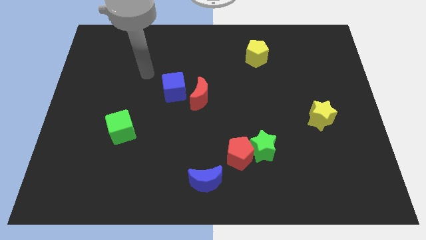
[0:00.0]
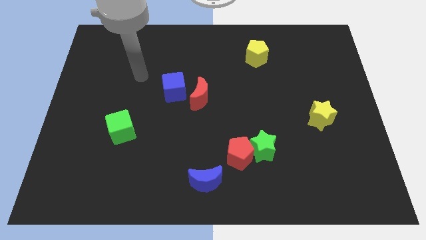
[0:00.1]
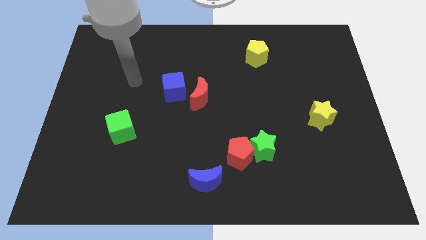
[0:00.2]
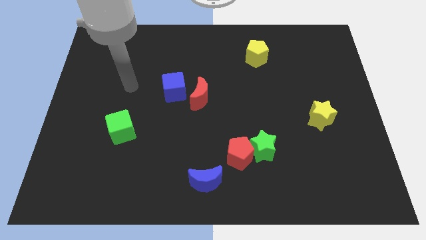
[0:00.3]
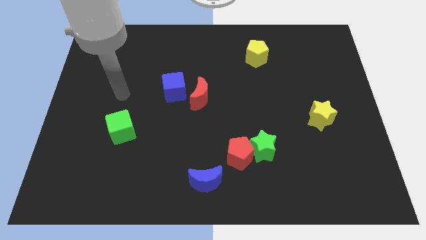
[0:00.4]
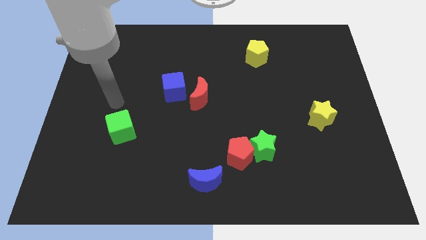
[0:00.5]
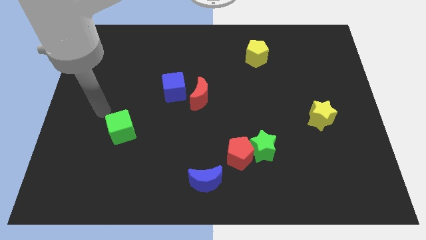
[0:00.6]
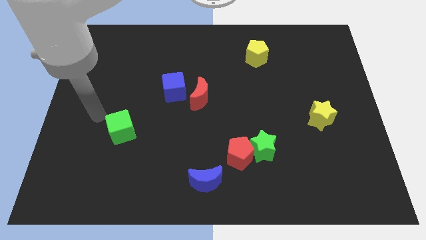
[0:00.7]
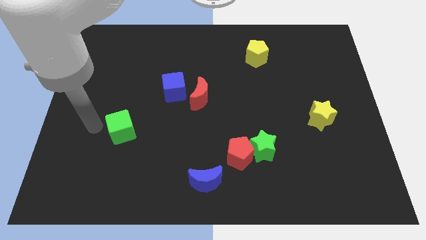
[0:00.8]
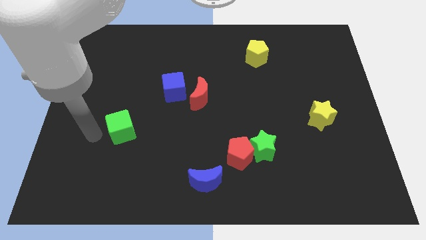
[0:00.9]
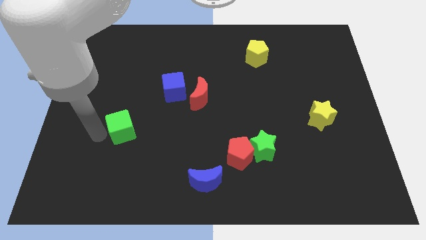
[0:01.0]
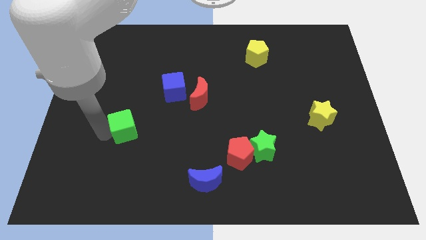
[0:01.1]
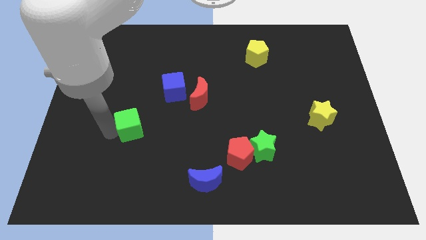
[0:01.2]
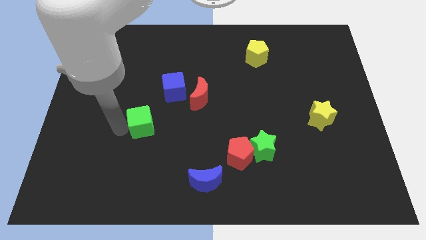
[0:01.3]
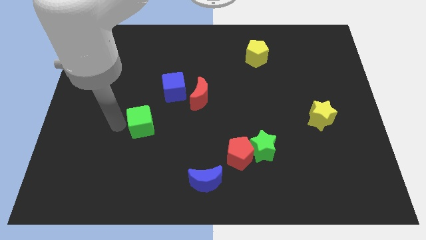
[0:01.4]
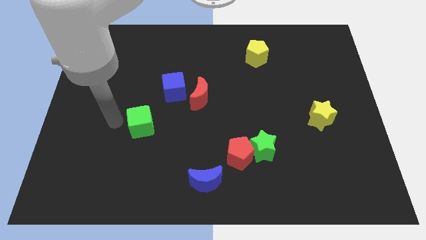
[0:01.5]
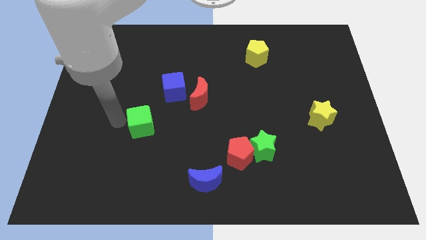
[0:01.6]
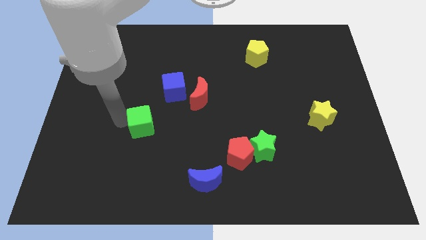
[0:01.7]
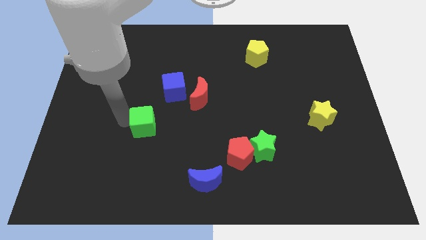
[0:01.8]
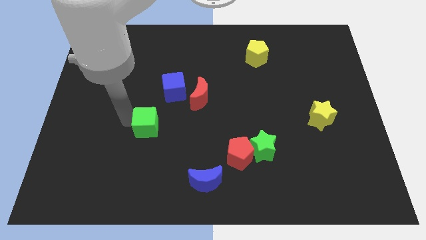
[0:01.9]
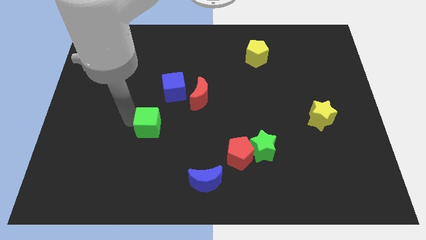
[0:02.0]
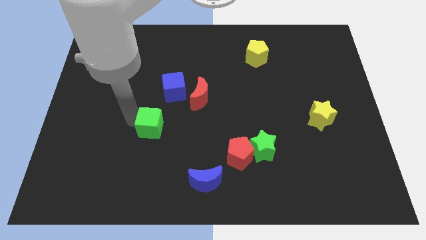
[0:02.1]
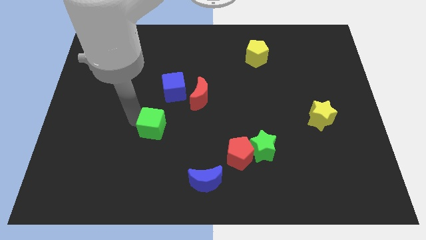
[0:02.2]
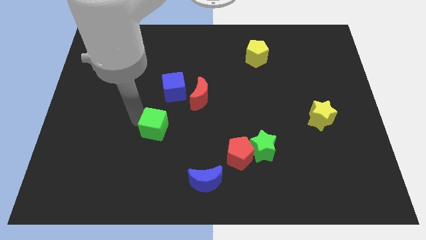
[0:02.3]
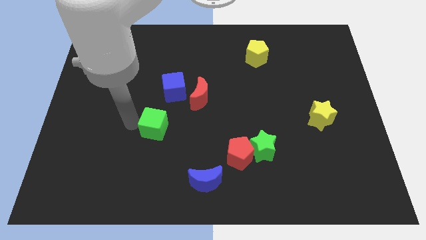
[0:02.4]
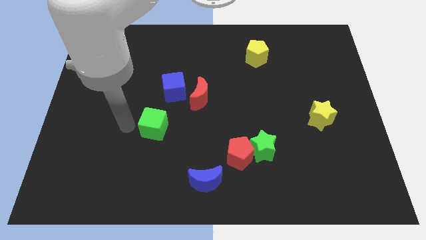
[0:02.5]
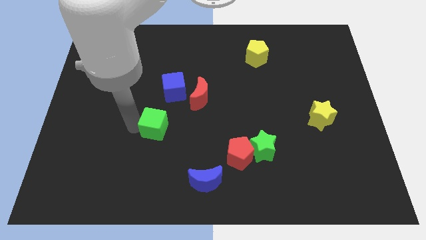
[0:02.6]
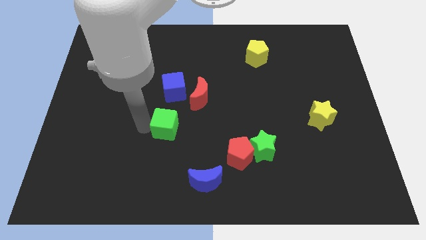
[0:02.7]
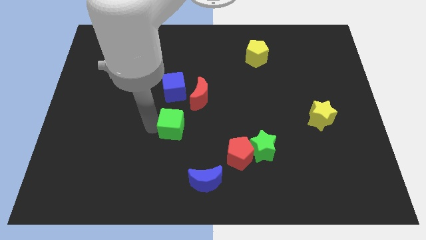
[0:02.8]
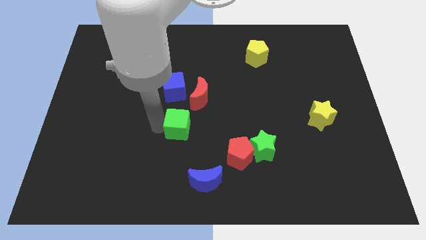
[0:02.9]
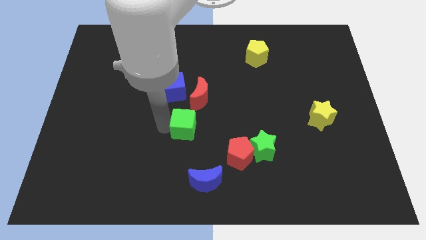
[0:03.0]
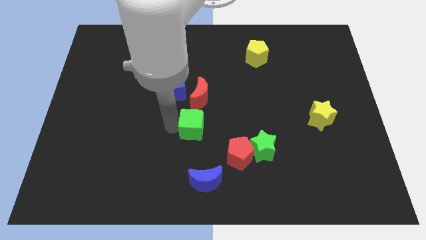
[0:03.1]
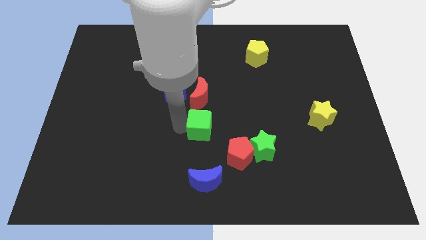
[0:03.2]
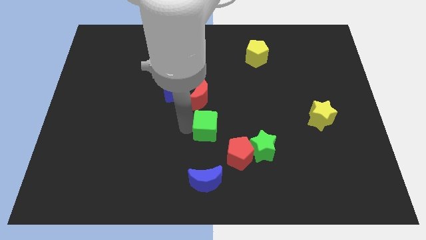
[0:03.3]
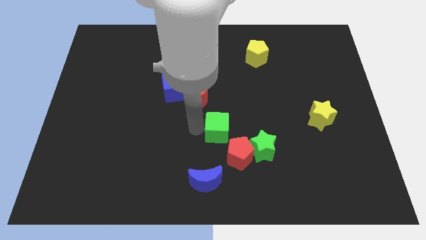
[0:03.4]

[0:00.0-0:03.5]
push the green cube to the right

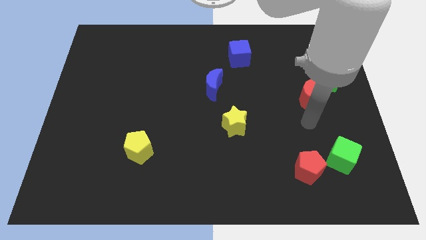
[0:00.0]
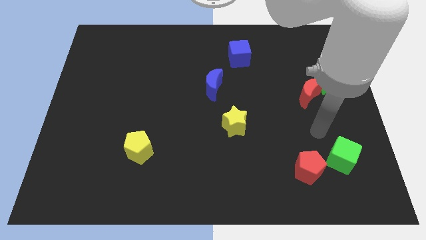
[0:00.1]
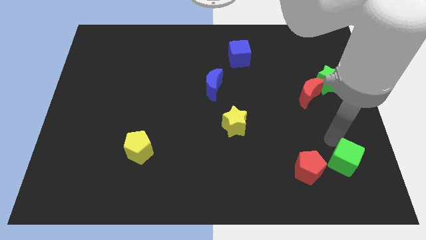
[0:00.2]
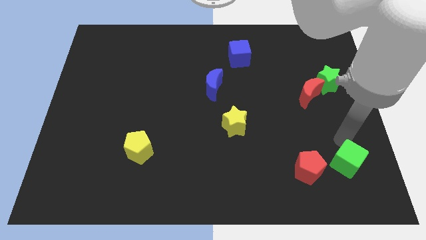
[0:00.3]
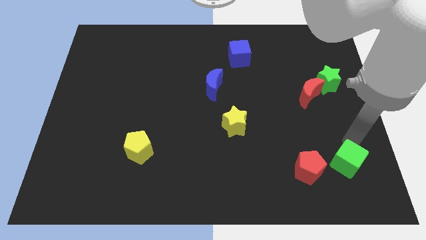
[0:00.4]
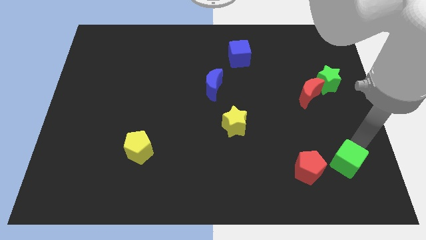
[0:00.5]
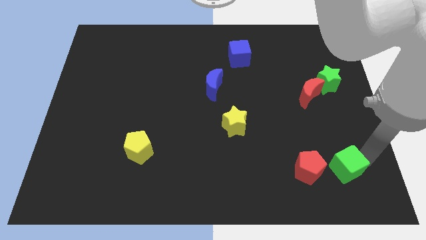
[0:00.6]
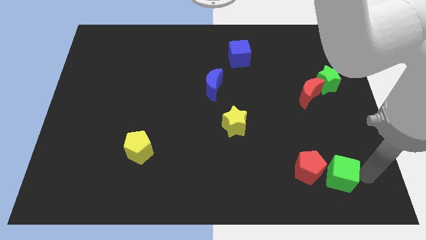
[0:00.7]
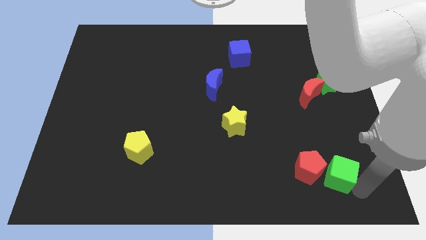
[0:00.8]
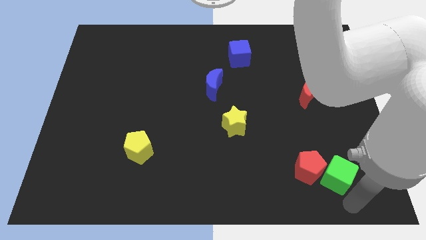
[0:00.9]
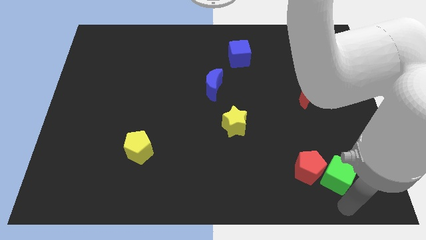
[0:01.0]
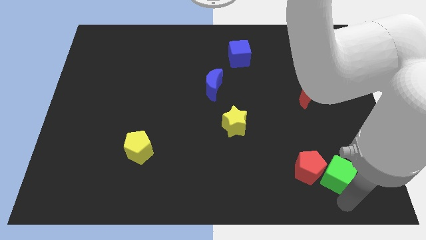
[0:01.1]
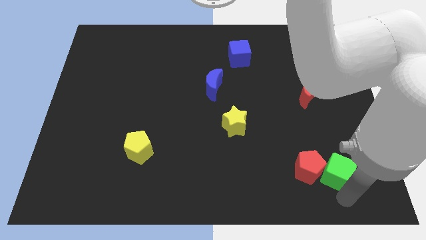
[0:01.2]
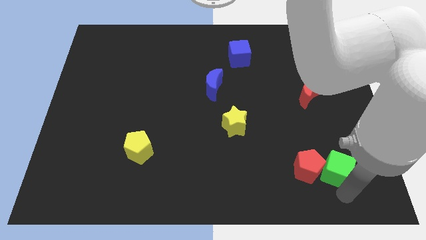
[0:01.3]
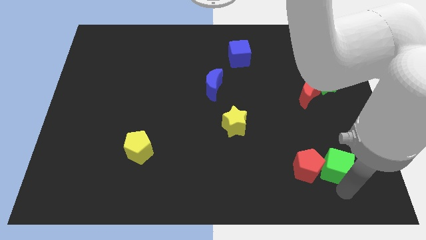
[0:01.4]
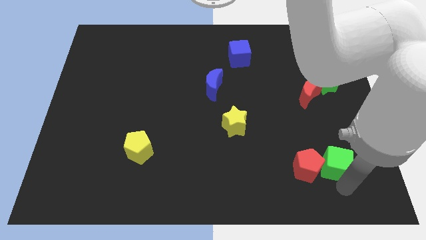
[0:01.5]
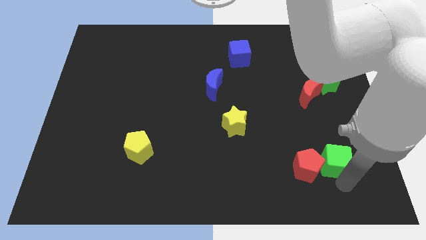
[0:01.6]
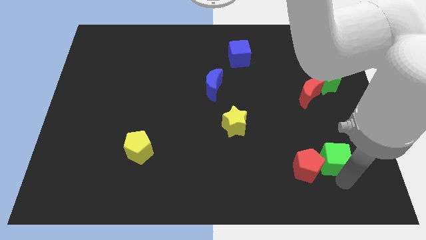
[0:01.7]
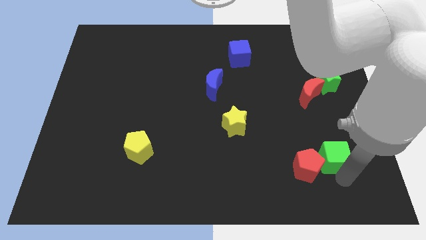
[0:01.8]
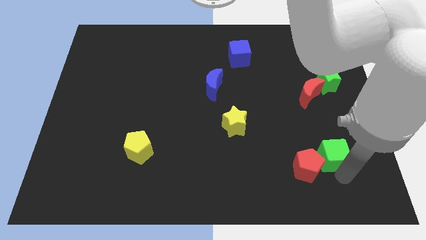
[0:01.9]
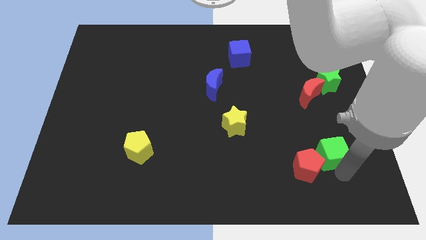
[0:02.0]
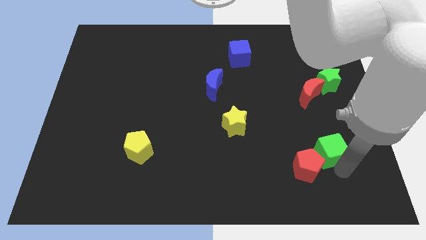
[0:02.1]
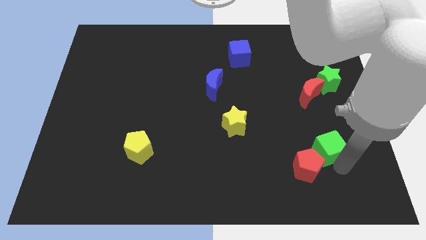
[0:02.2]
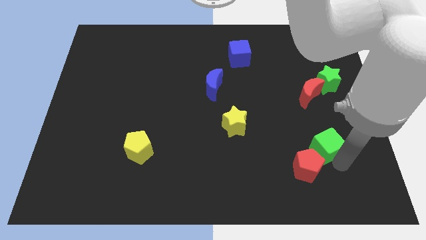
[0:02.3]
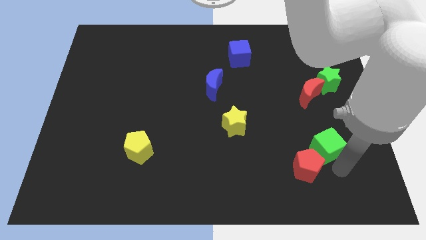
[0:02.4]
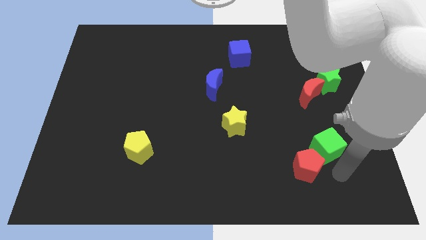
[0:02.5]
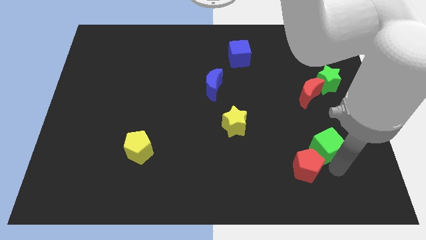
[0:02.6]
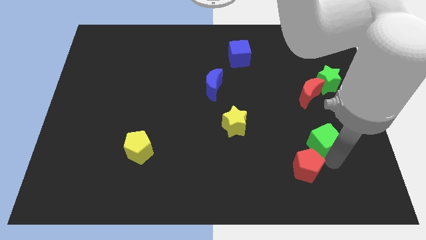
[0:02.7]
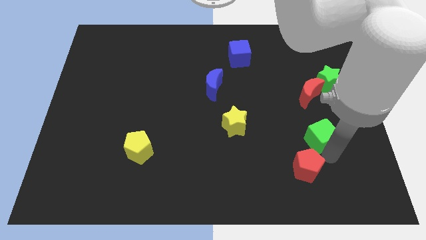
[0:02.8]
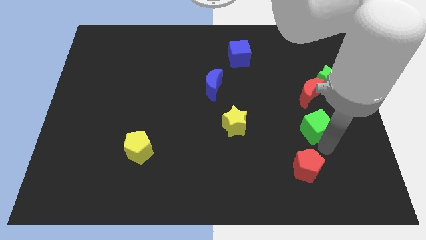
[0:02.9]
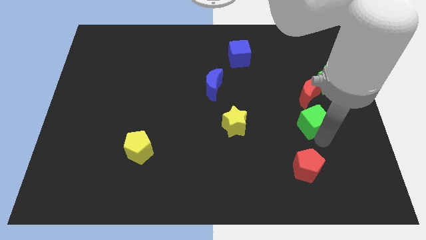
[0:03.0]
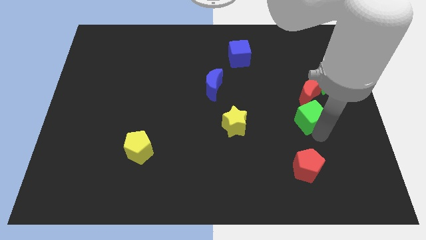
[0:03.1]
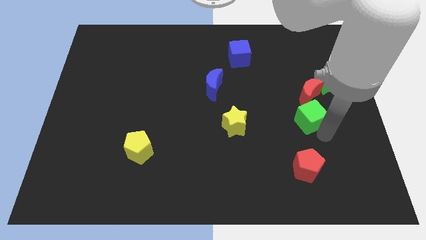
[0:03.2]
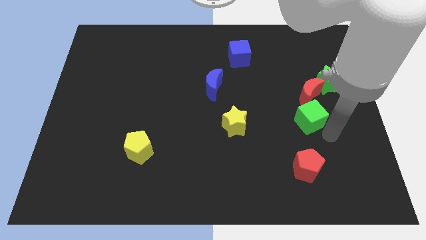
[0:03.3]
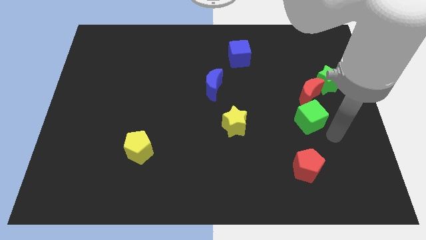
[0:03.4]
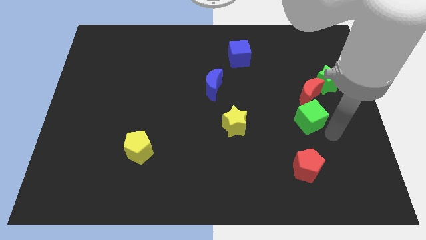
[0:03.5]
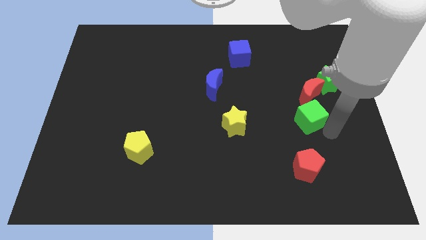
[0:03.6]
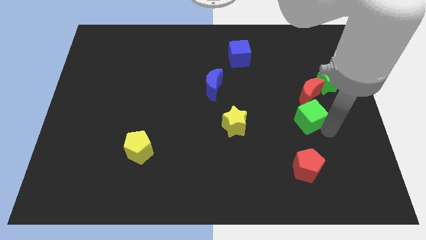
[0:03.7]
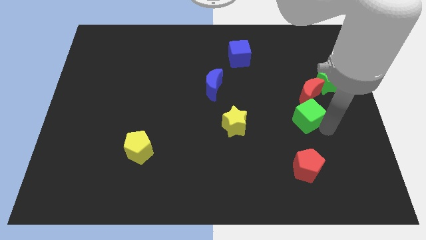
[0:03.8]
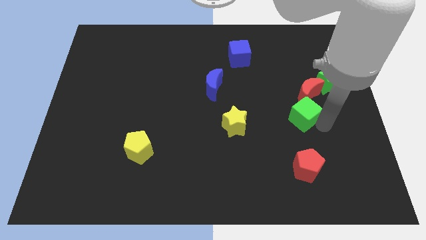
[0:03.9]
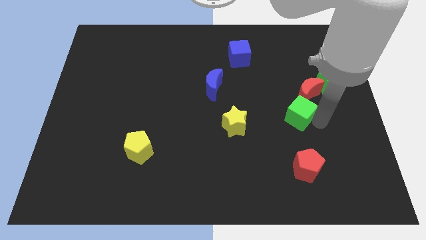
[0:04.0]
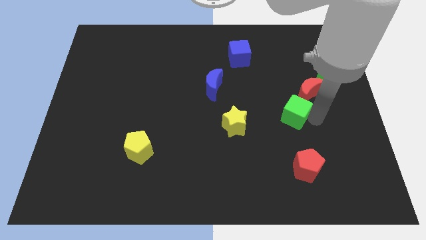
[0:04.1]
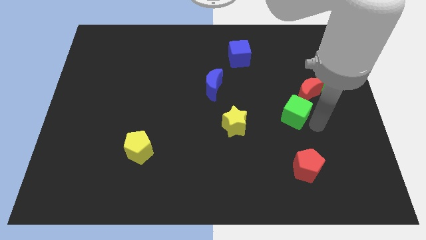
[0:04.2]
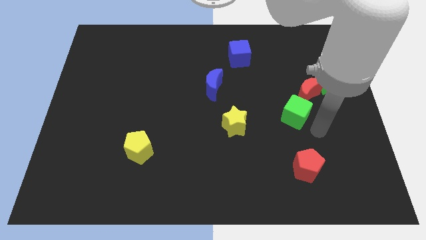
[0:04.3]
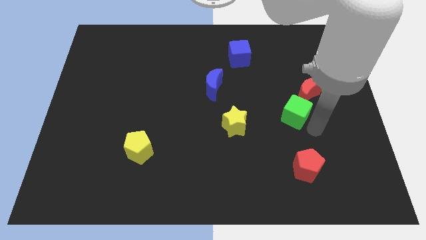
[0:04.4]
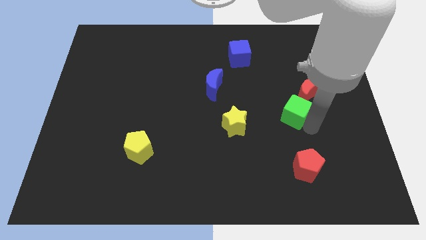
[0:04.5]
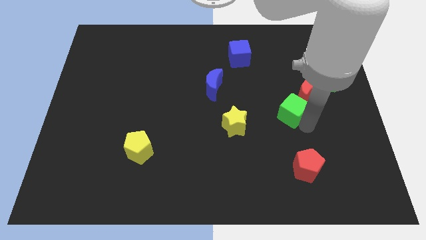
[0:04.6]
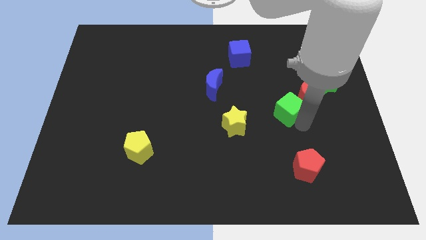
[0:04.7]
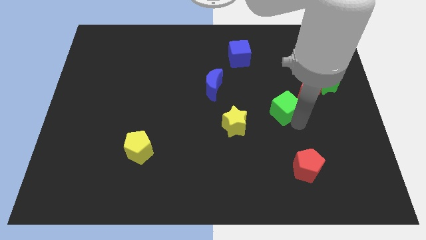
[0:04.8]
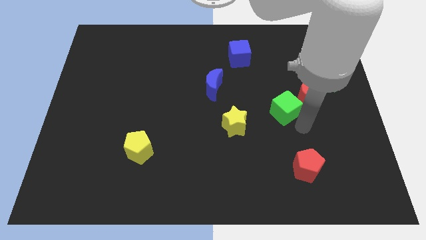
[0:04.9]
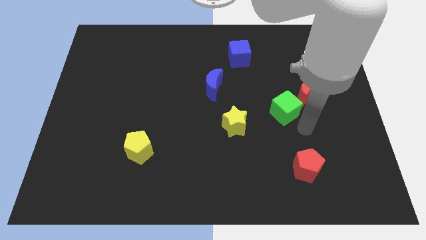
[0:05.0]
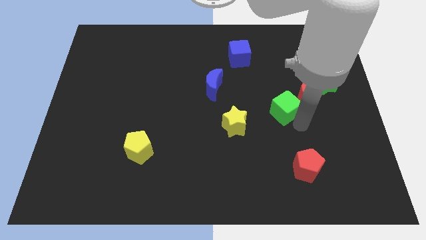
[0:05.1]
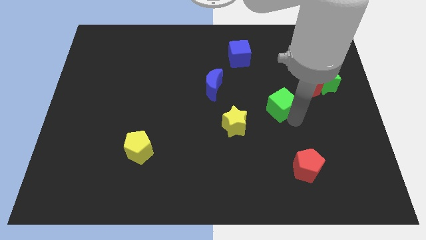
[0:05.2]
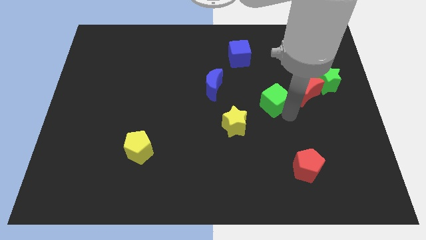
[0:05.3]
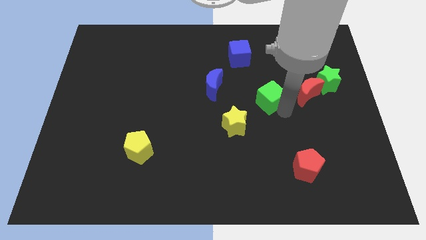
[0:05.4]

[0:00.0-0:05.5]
slide the green cube up and then left

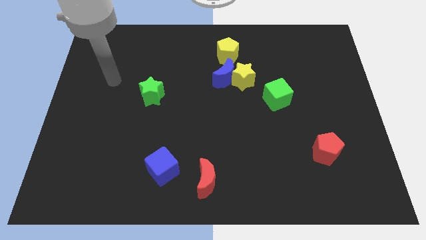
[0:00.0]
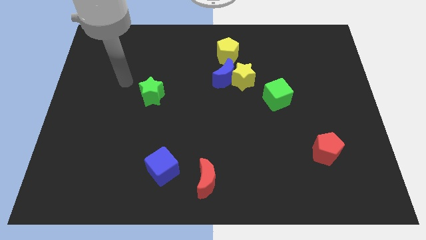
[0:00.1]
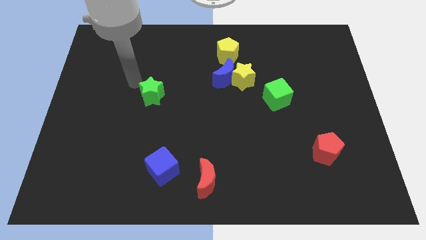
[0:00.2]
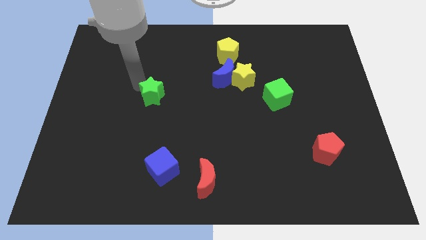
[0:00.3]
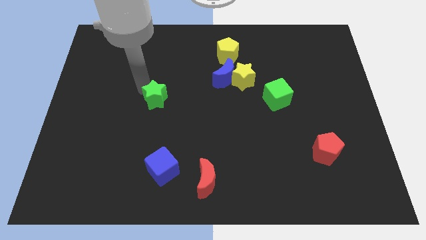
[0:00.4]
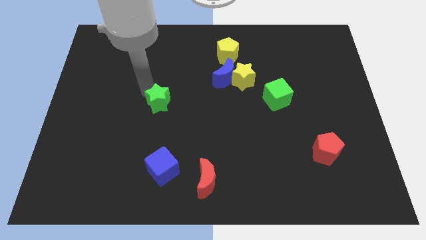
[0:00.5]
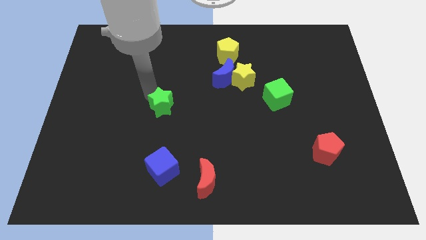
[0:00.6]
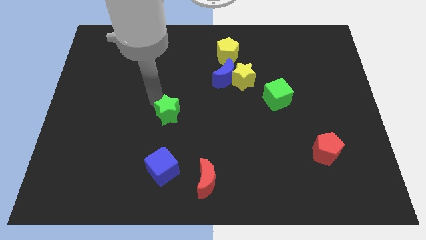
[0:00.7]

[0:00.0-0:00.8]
slide the green star a little downwards and right
